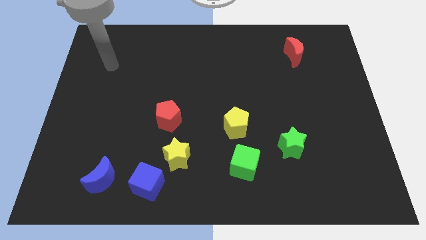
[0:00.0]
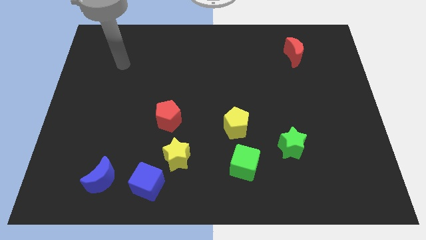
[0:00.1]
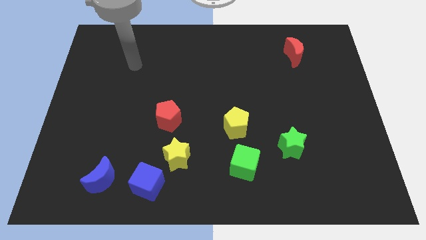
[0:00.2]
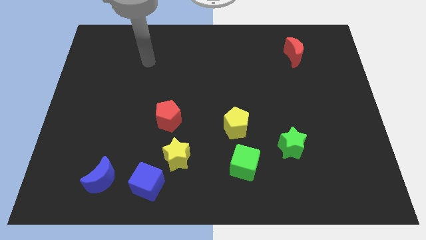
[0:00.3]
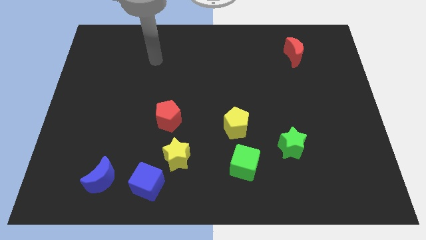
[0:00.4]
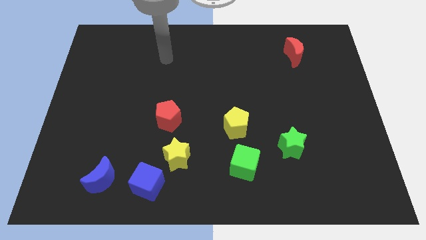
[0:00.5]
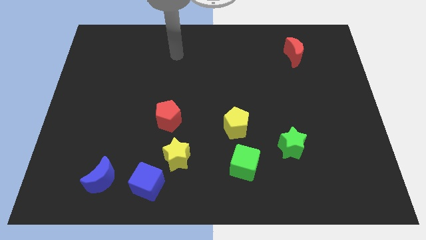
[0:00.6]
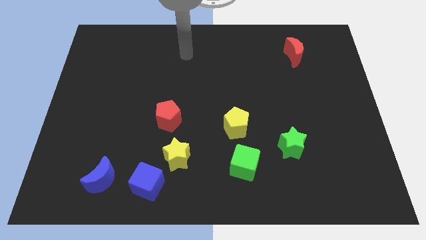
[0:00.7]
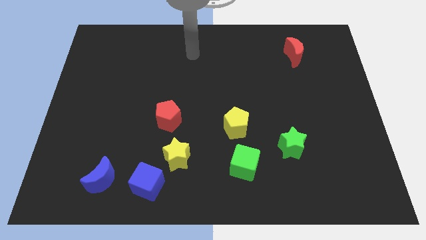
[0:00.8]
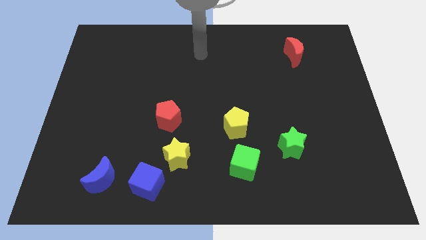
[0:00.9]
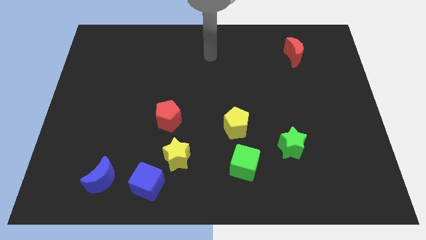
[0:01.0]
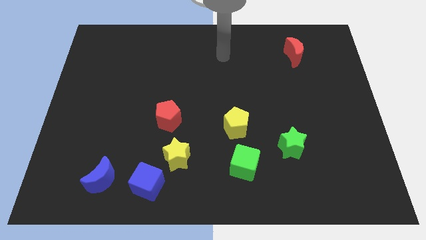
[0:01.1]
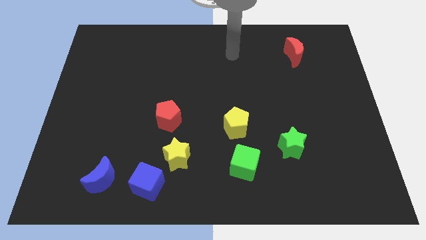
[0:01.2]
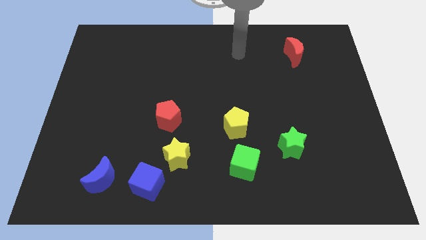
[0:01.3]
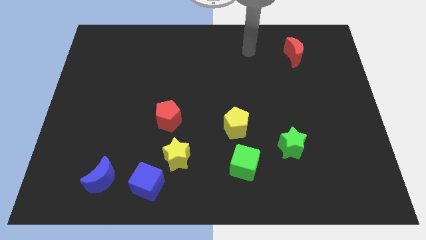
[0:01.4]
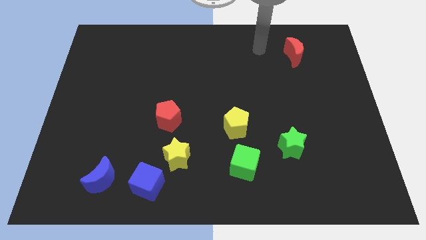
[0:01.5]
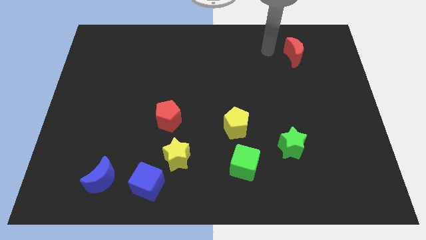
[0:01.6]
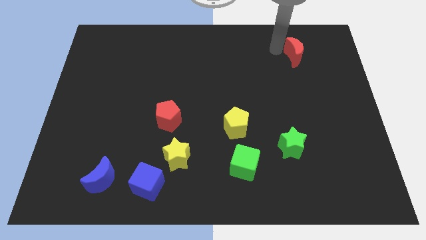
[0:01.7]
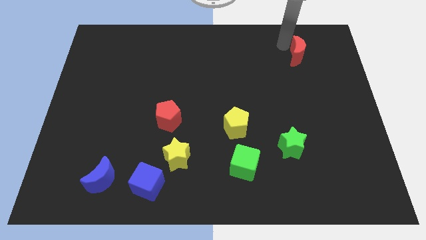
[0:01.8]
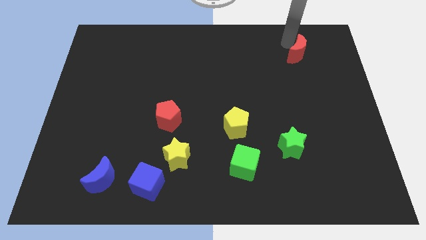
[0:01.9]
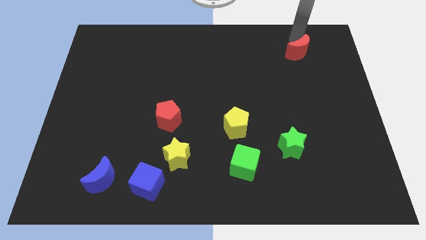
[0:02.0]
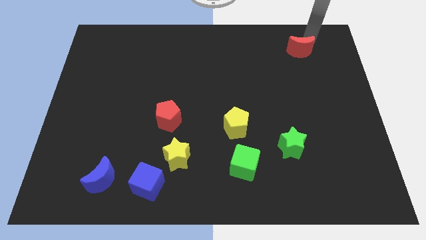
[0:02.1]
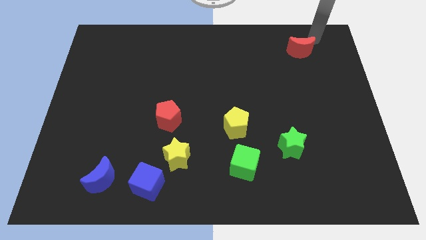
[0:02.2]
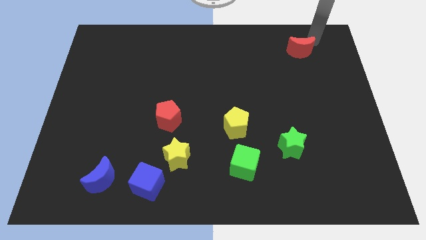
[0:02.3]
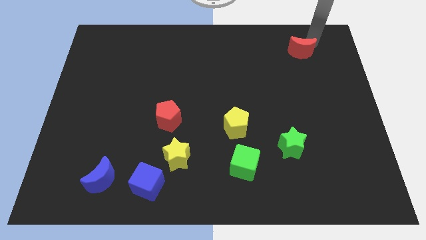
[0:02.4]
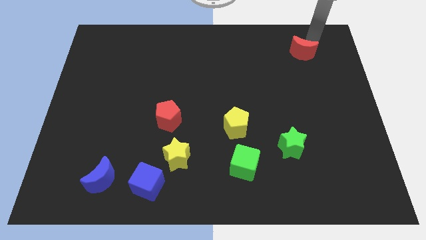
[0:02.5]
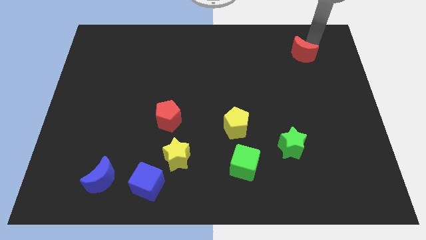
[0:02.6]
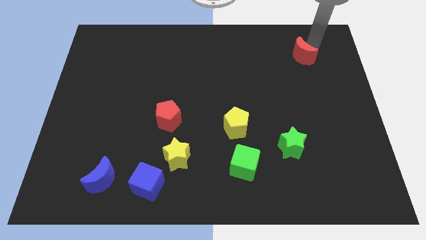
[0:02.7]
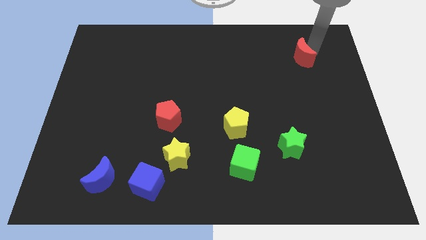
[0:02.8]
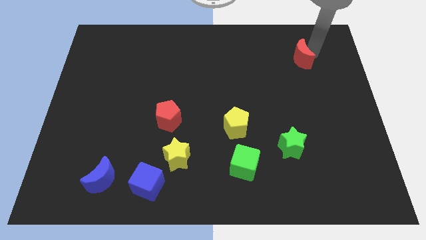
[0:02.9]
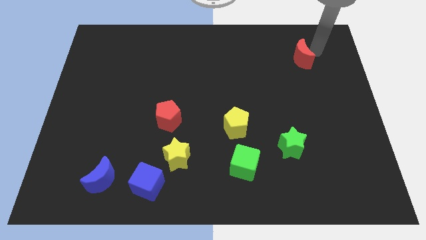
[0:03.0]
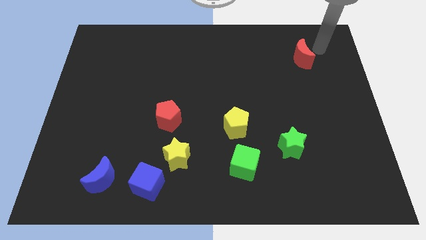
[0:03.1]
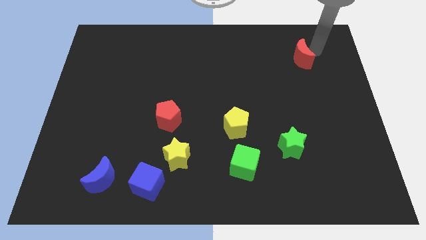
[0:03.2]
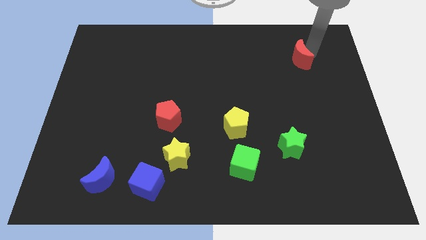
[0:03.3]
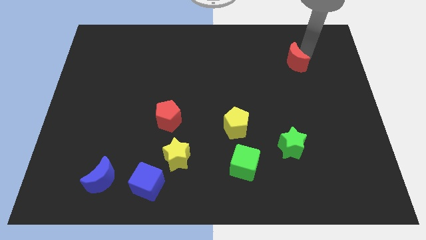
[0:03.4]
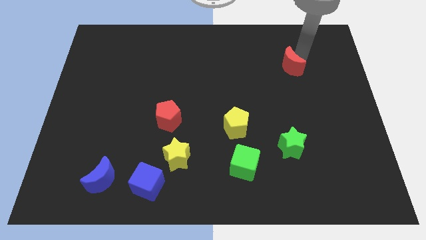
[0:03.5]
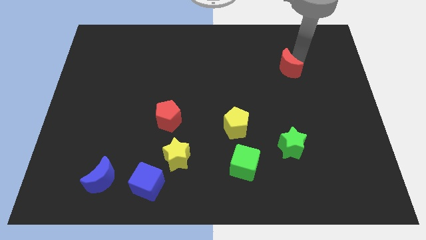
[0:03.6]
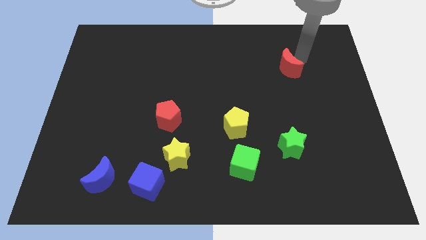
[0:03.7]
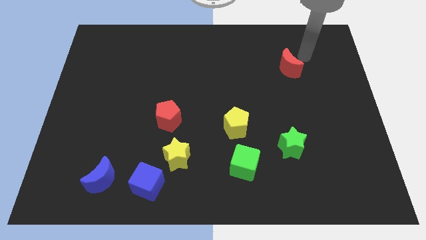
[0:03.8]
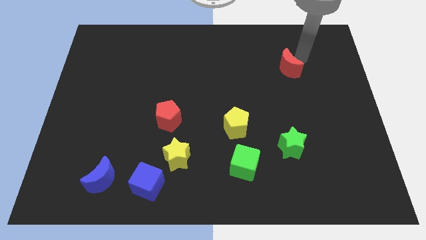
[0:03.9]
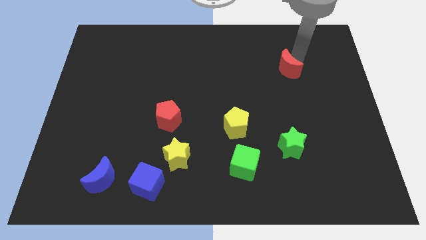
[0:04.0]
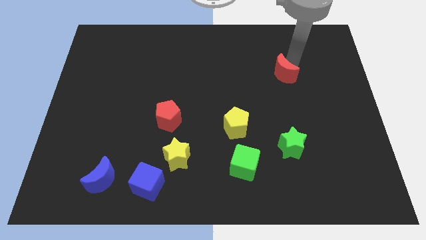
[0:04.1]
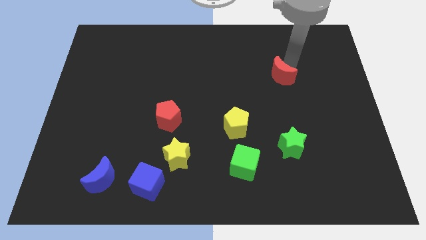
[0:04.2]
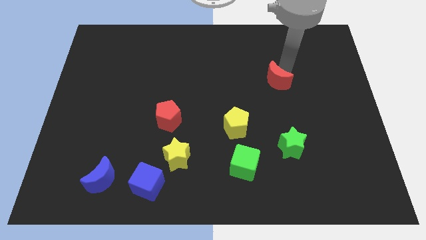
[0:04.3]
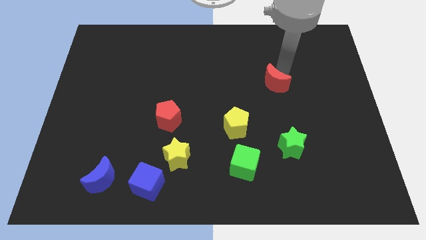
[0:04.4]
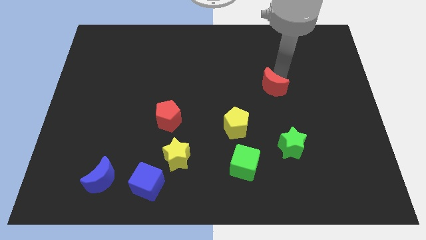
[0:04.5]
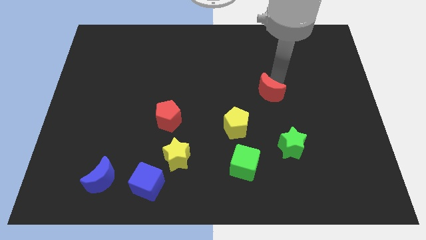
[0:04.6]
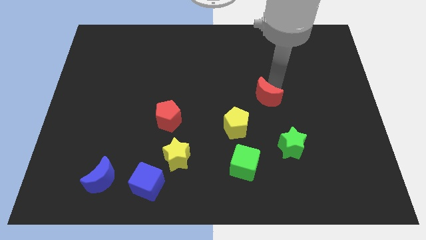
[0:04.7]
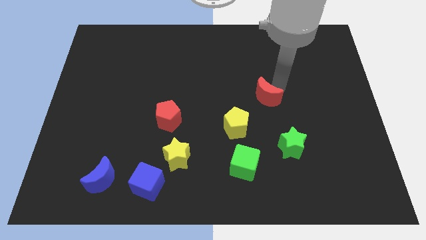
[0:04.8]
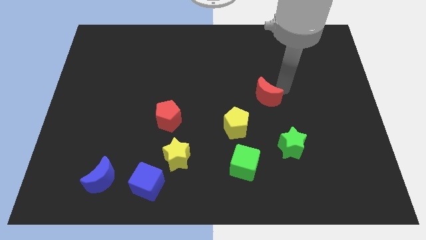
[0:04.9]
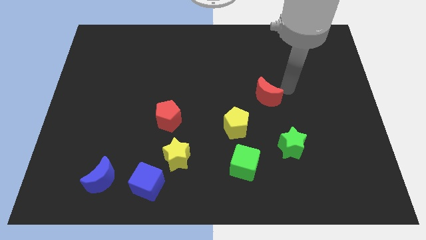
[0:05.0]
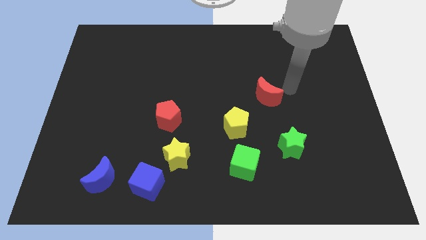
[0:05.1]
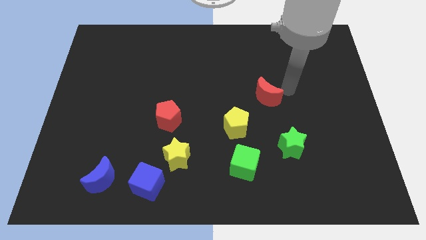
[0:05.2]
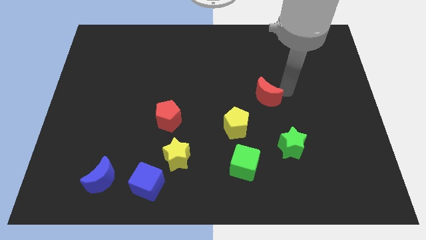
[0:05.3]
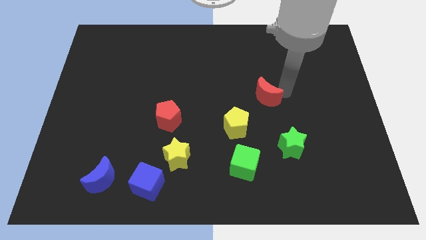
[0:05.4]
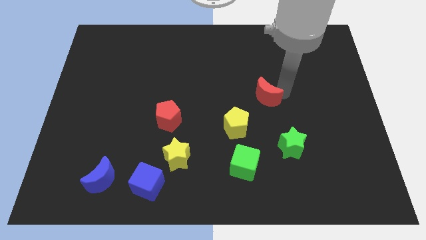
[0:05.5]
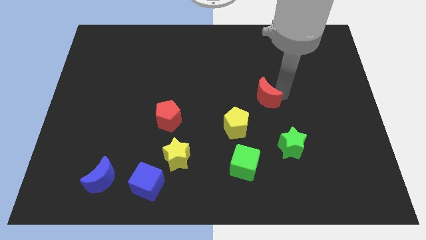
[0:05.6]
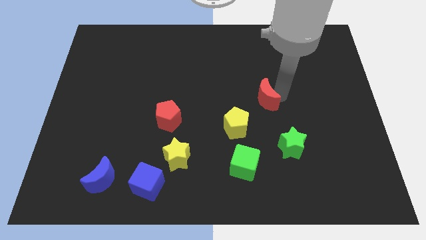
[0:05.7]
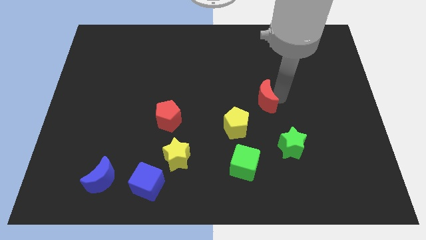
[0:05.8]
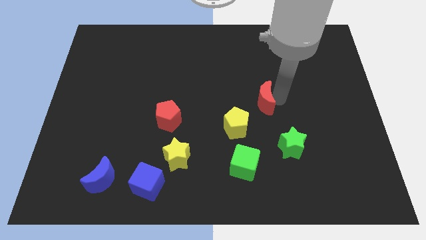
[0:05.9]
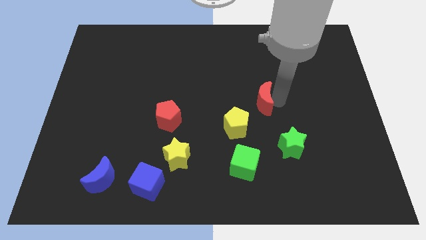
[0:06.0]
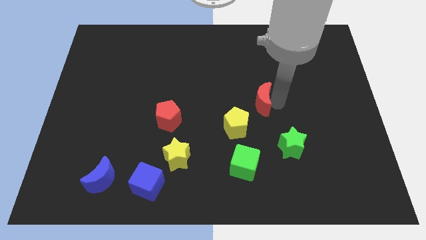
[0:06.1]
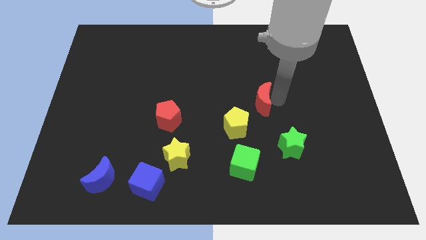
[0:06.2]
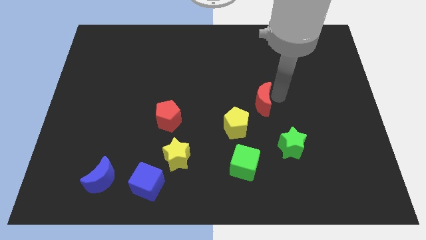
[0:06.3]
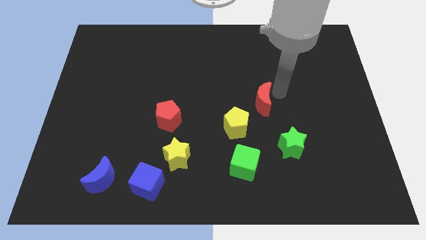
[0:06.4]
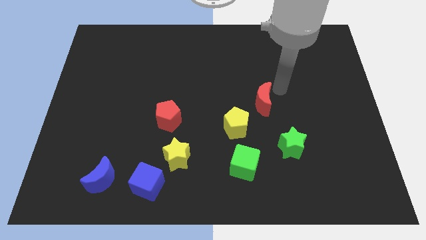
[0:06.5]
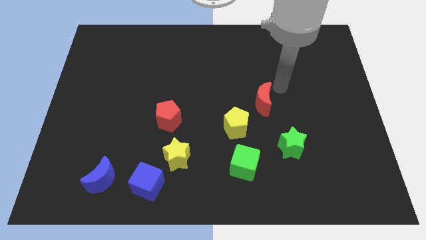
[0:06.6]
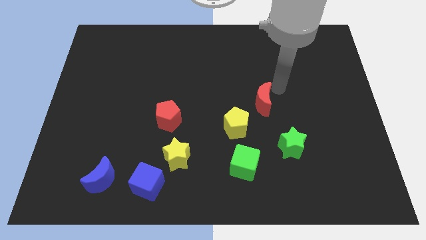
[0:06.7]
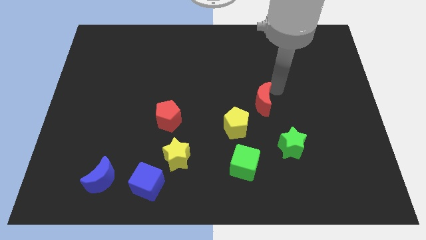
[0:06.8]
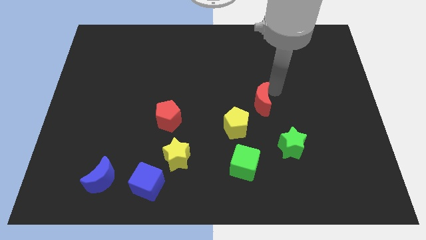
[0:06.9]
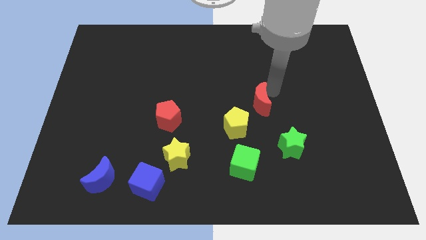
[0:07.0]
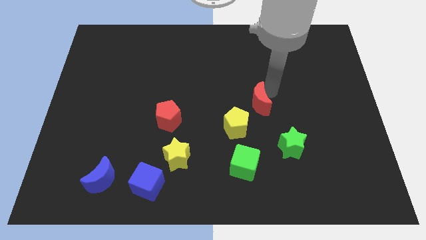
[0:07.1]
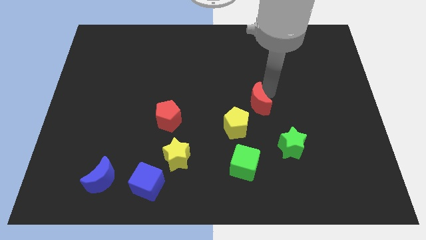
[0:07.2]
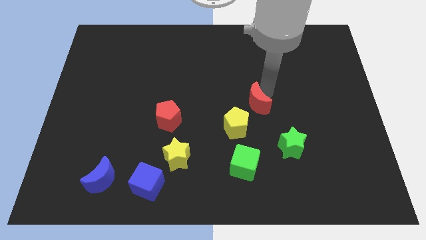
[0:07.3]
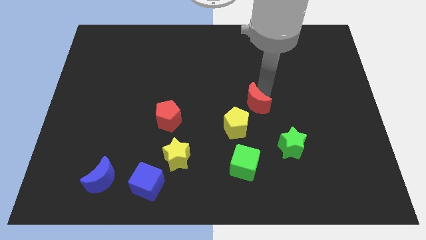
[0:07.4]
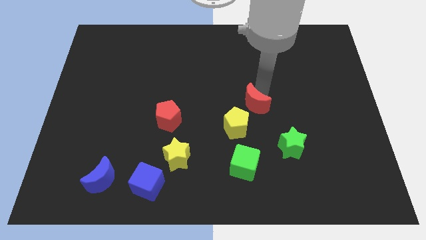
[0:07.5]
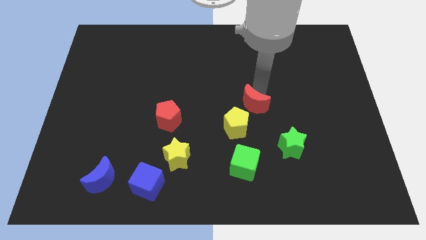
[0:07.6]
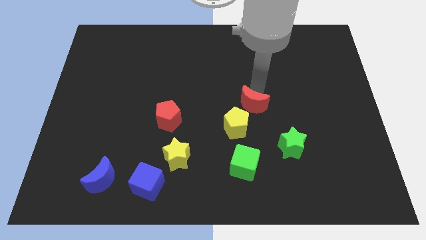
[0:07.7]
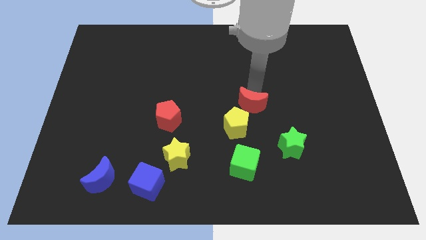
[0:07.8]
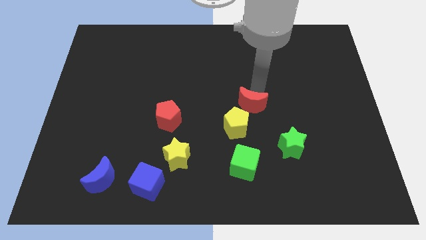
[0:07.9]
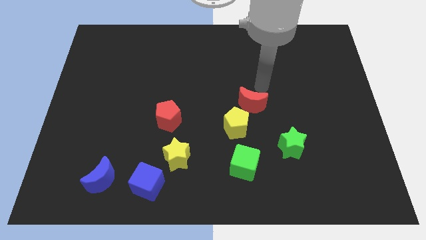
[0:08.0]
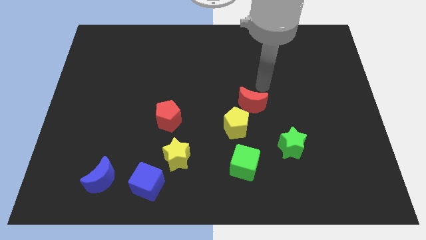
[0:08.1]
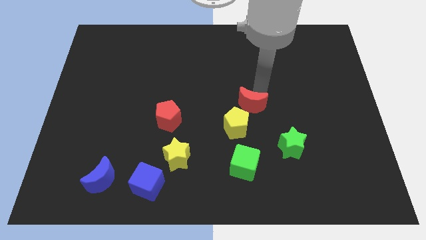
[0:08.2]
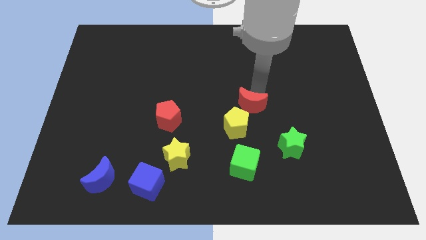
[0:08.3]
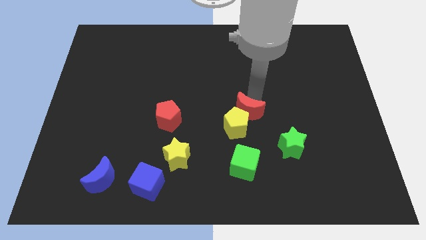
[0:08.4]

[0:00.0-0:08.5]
put the red moon next to the yellow pentagon
